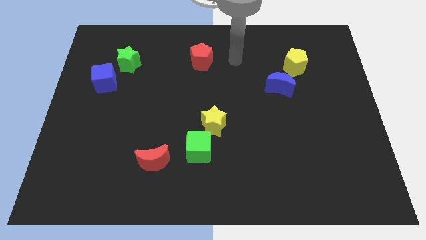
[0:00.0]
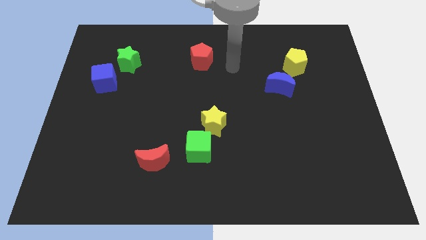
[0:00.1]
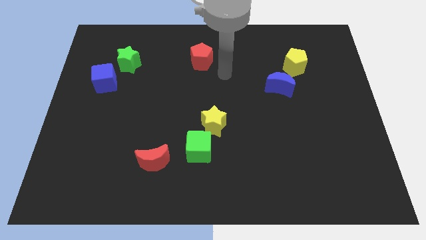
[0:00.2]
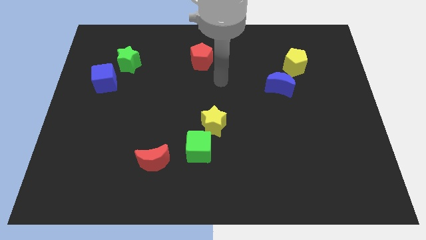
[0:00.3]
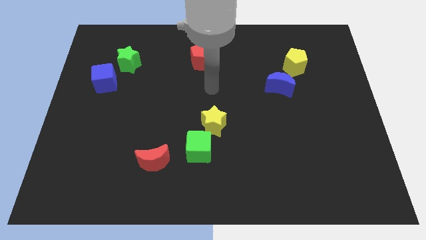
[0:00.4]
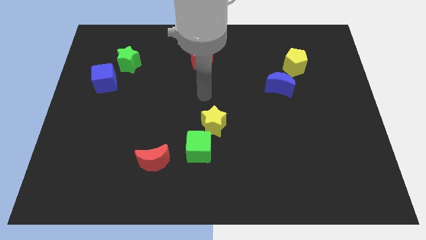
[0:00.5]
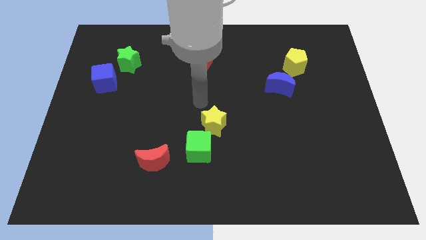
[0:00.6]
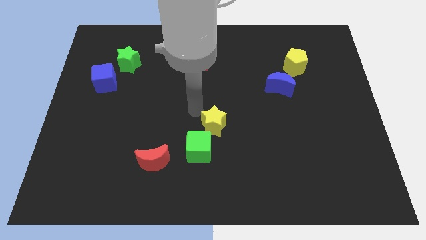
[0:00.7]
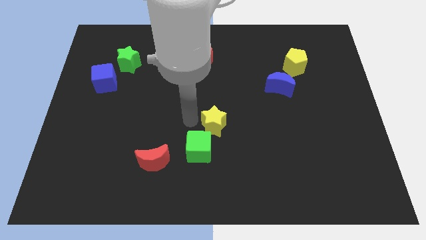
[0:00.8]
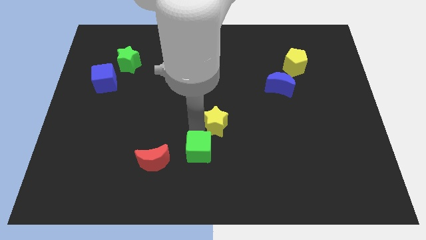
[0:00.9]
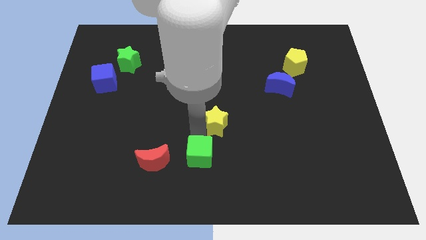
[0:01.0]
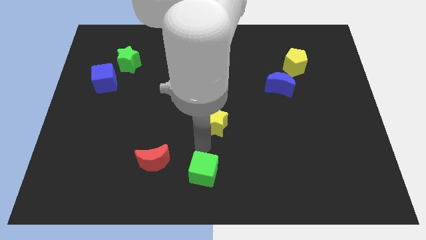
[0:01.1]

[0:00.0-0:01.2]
separate the yellow star from the green cube

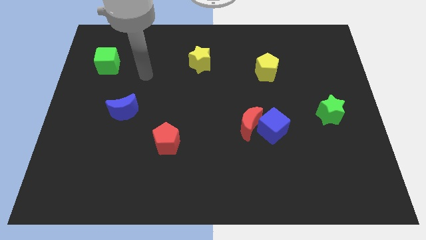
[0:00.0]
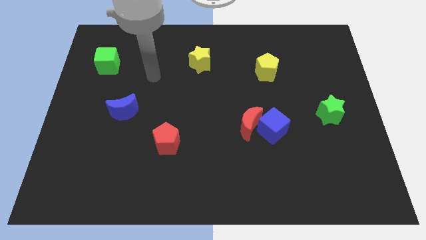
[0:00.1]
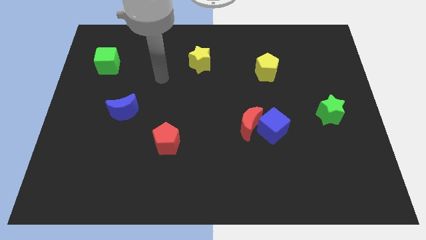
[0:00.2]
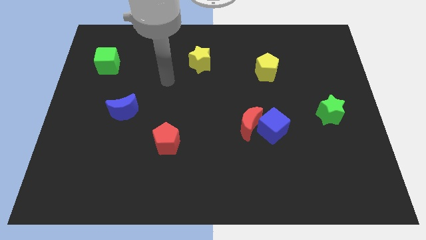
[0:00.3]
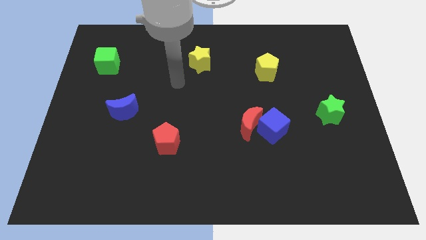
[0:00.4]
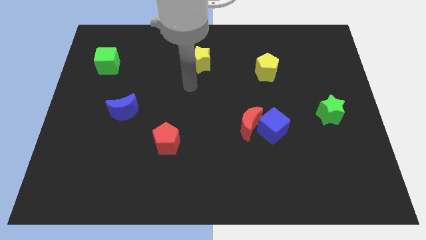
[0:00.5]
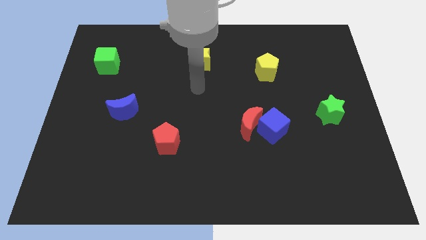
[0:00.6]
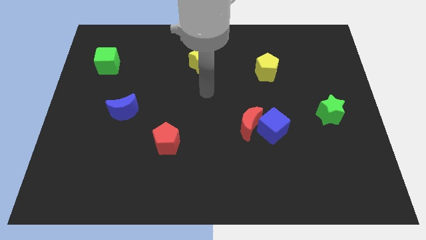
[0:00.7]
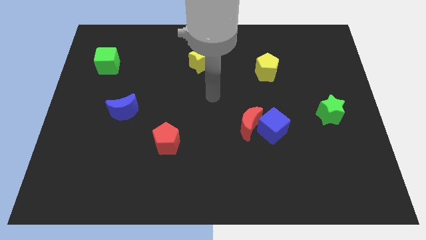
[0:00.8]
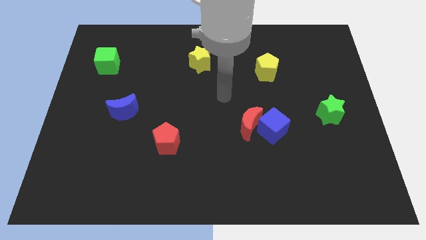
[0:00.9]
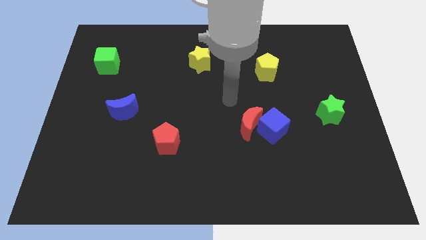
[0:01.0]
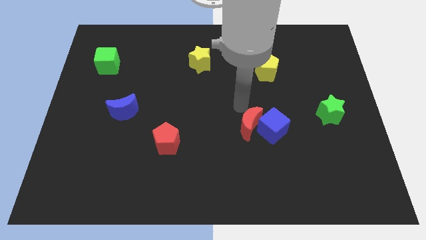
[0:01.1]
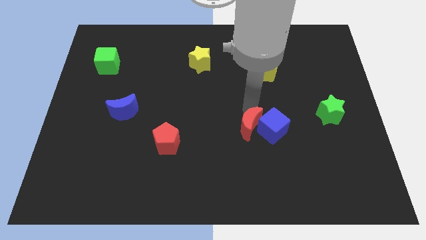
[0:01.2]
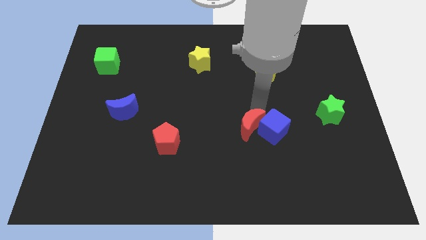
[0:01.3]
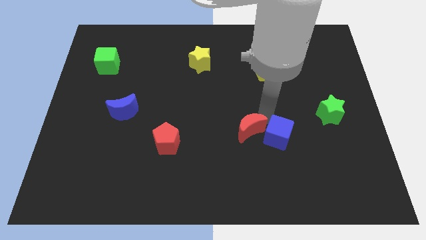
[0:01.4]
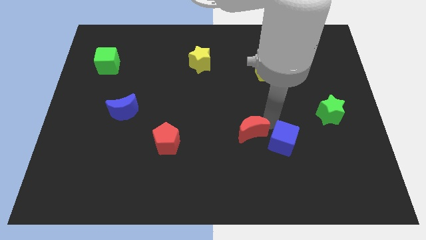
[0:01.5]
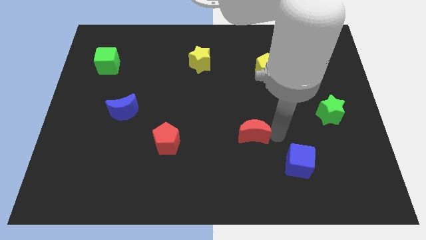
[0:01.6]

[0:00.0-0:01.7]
separate the red moon from the blue cube

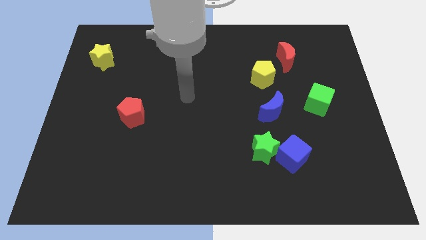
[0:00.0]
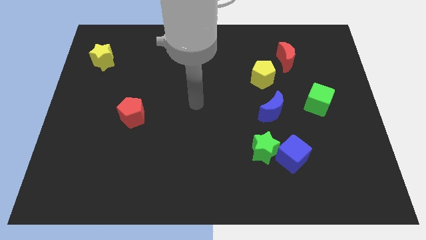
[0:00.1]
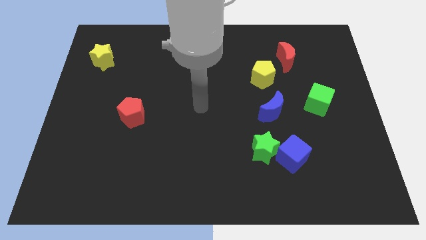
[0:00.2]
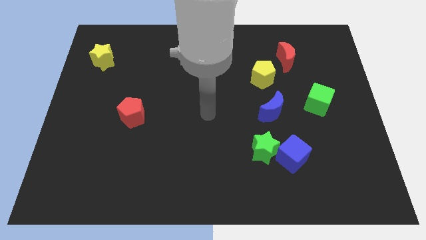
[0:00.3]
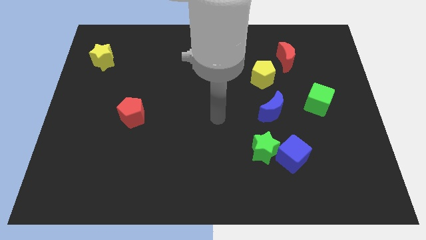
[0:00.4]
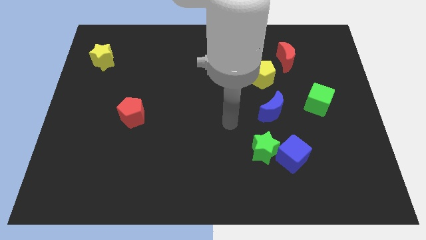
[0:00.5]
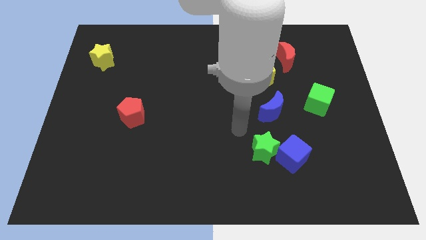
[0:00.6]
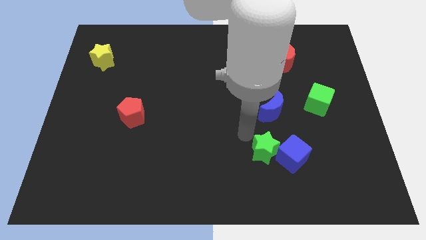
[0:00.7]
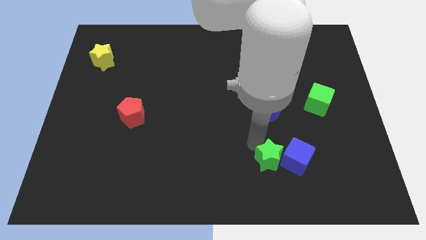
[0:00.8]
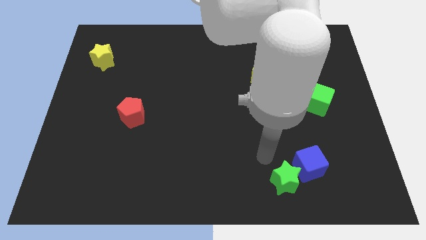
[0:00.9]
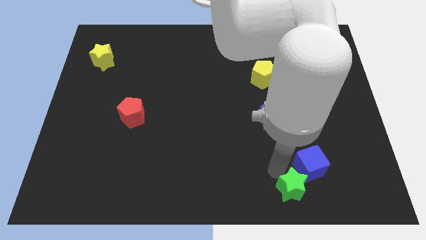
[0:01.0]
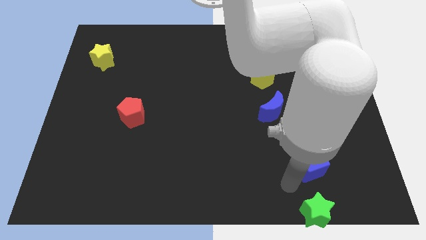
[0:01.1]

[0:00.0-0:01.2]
separate the blue cube from the green star

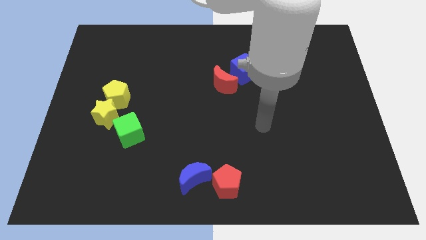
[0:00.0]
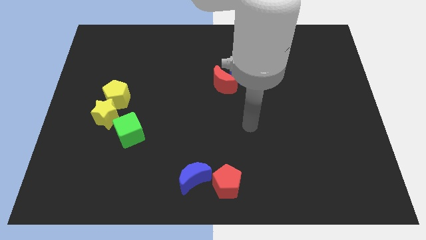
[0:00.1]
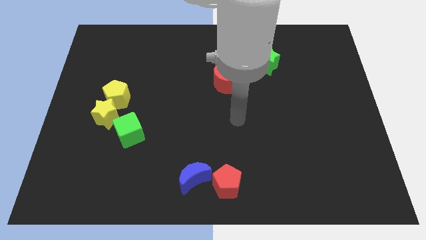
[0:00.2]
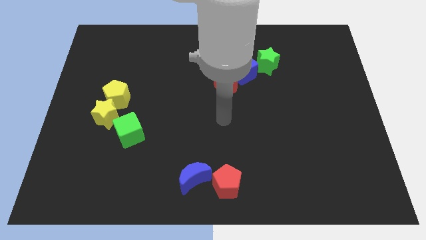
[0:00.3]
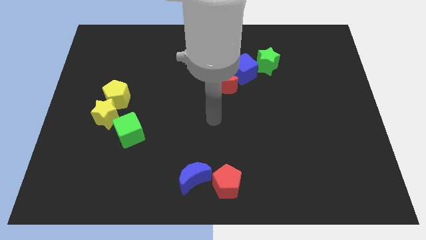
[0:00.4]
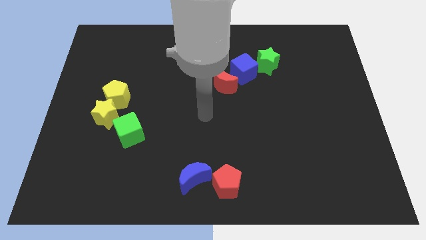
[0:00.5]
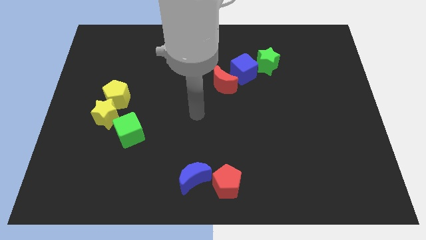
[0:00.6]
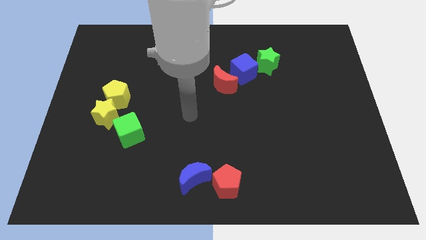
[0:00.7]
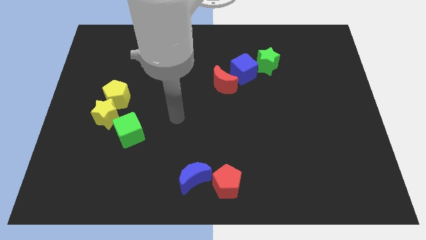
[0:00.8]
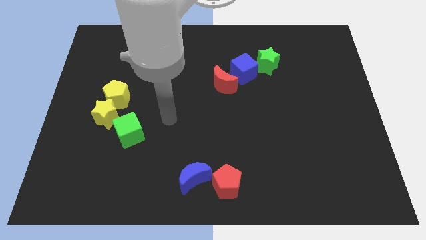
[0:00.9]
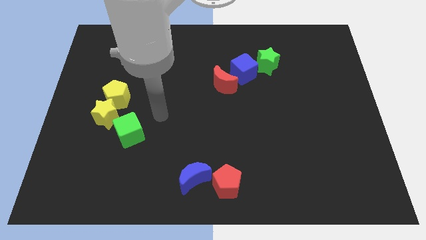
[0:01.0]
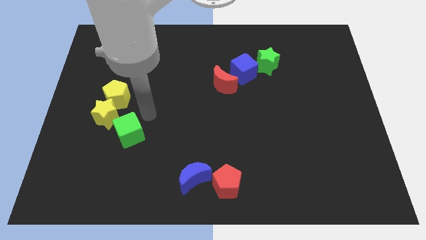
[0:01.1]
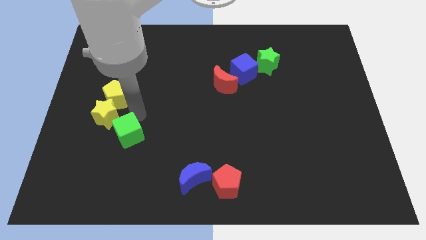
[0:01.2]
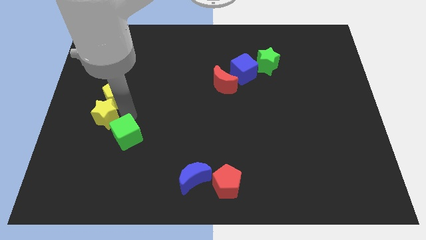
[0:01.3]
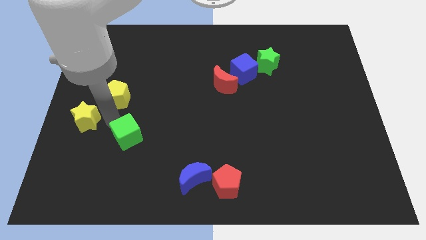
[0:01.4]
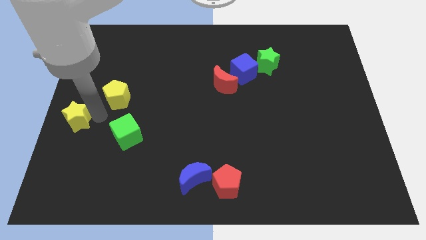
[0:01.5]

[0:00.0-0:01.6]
move the yellow pentagon away from the yellow star

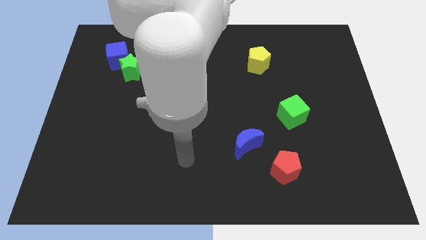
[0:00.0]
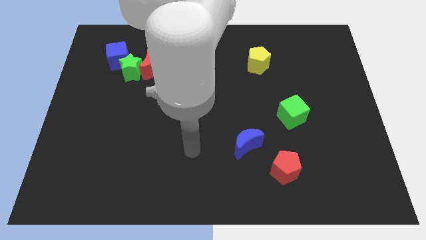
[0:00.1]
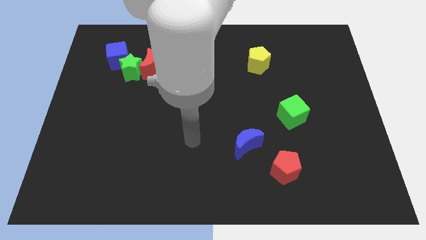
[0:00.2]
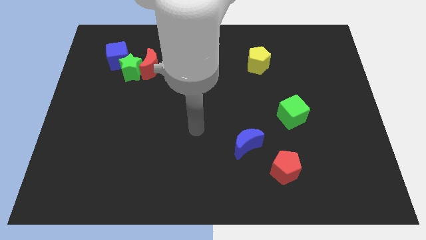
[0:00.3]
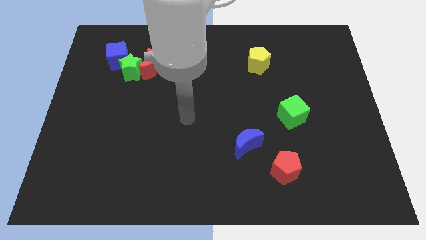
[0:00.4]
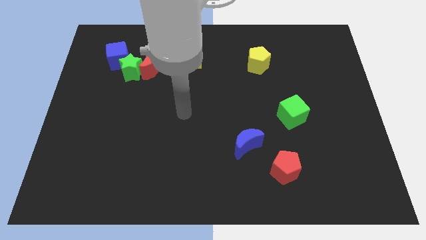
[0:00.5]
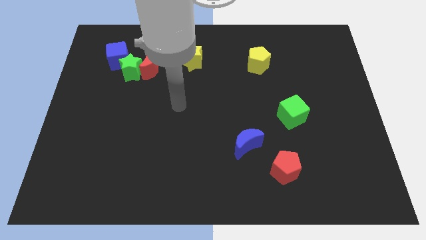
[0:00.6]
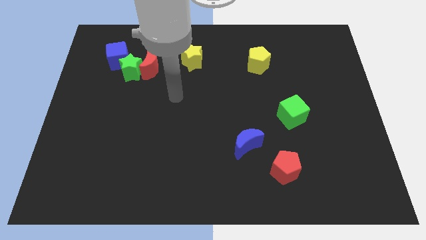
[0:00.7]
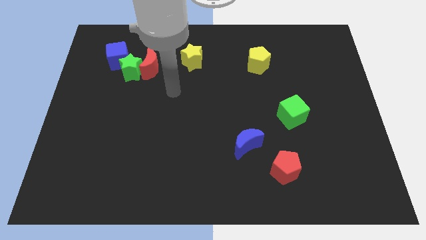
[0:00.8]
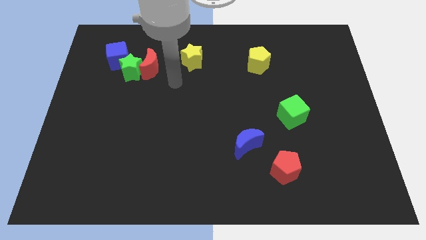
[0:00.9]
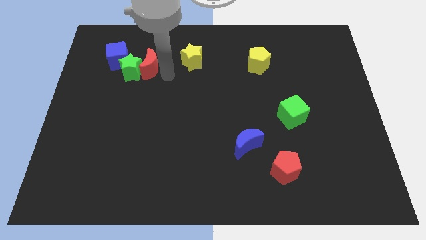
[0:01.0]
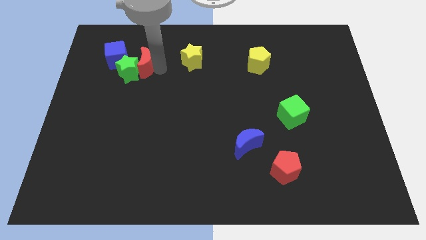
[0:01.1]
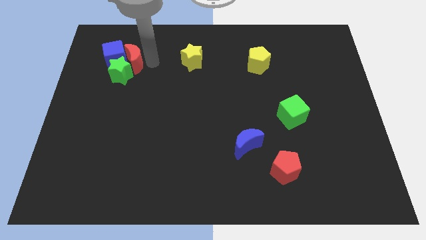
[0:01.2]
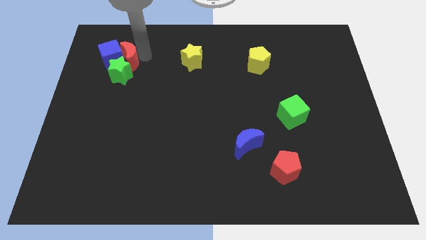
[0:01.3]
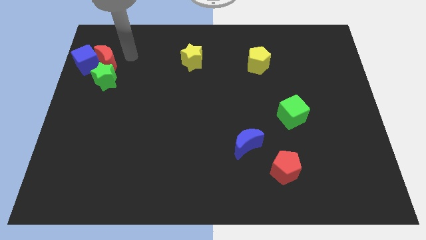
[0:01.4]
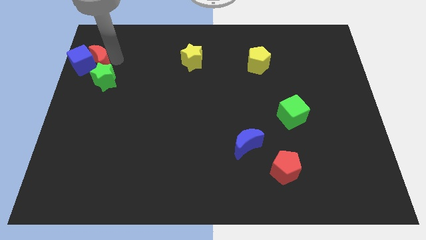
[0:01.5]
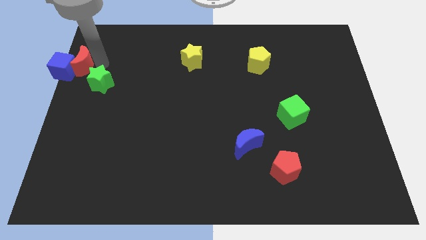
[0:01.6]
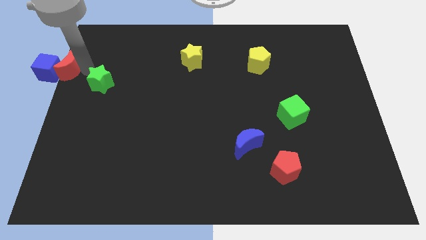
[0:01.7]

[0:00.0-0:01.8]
separate the green star from the red moon and blue cube

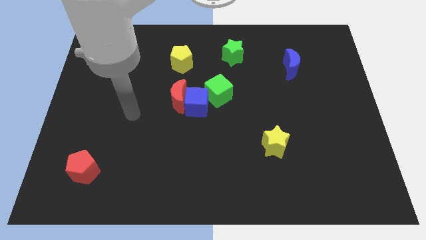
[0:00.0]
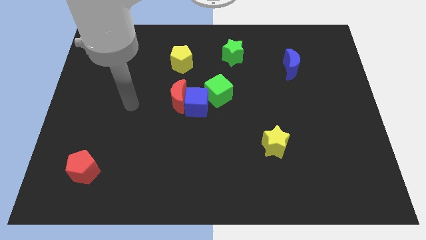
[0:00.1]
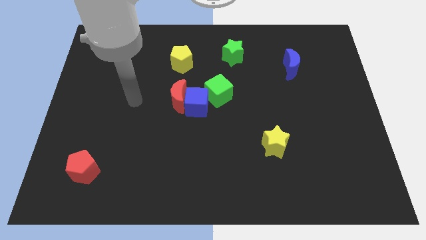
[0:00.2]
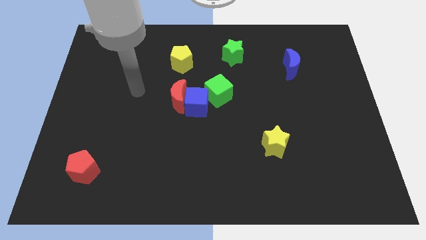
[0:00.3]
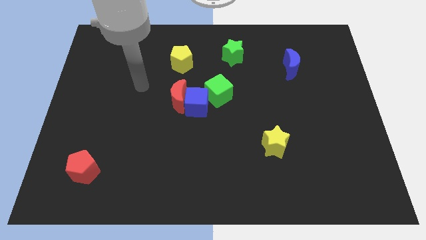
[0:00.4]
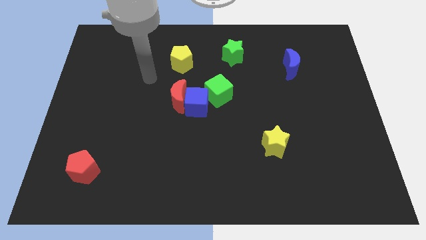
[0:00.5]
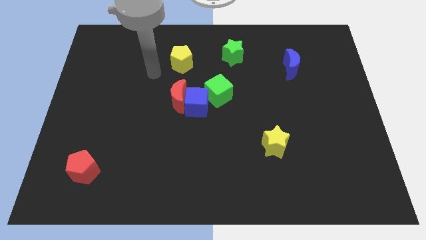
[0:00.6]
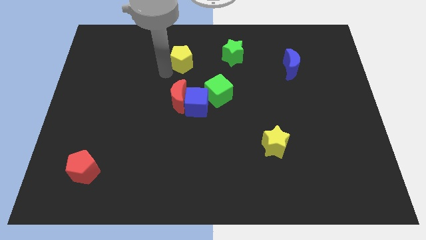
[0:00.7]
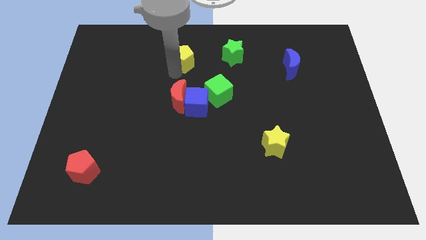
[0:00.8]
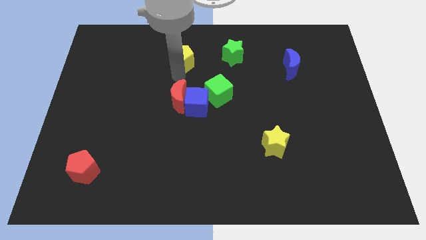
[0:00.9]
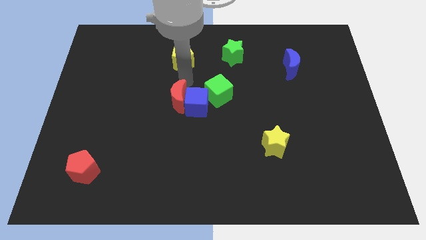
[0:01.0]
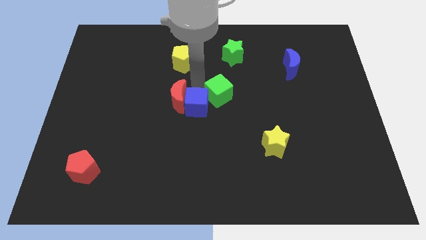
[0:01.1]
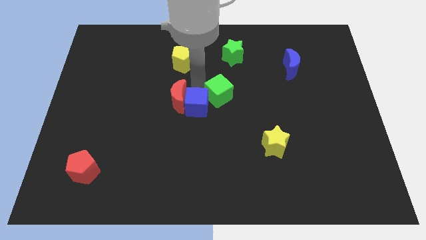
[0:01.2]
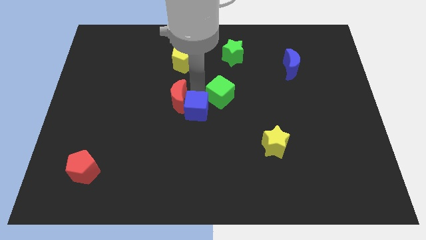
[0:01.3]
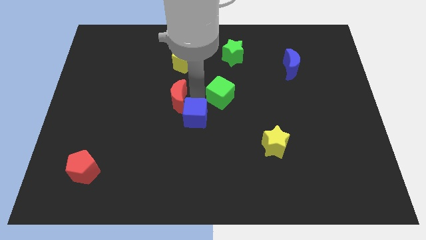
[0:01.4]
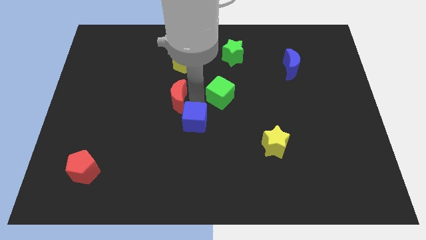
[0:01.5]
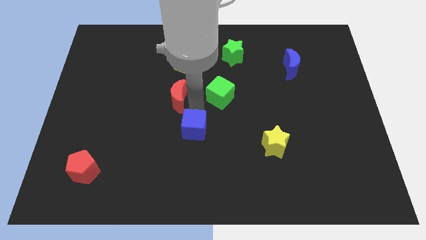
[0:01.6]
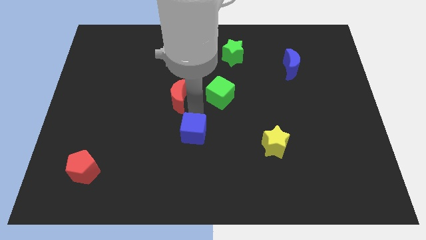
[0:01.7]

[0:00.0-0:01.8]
move the blue cube away from the red moon and green cube
